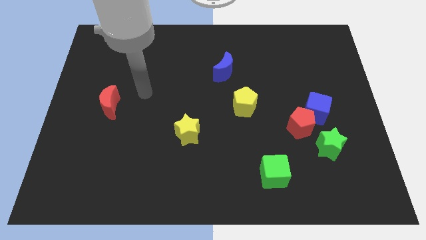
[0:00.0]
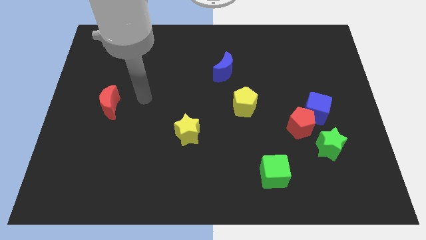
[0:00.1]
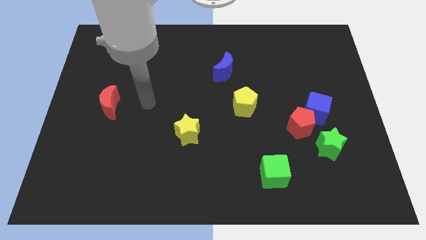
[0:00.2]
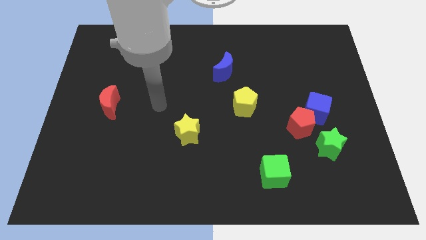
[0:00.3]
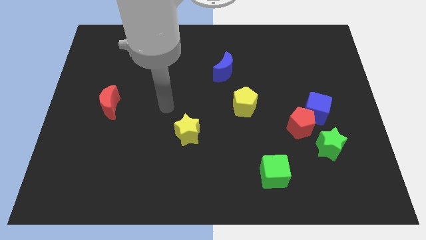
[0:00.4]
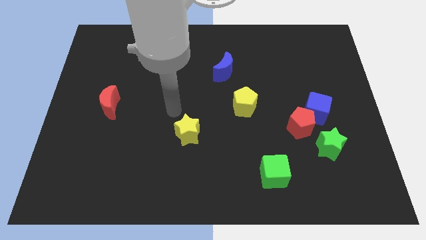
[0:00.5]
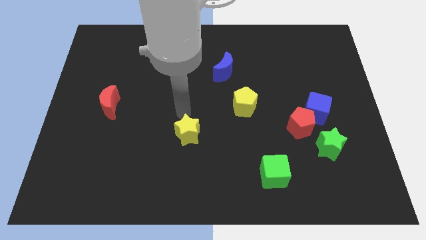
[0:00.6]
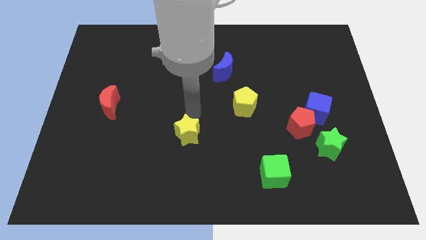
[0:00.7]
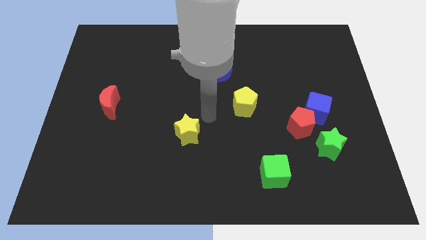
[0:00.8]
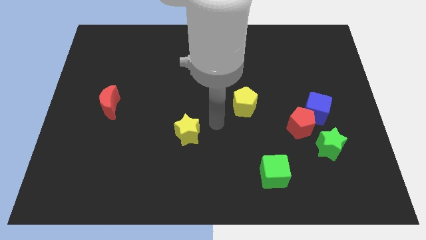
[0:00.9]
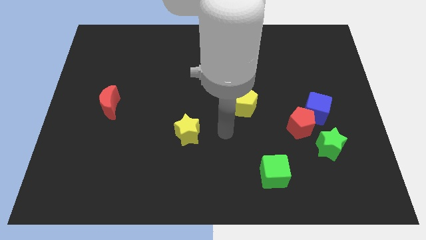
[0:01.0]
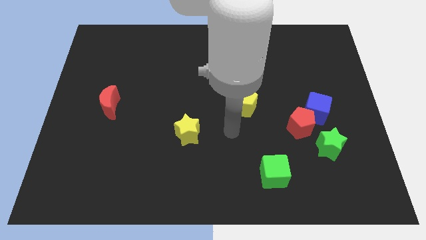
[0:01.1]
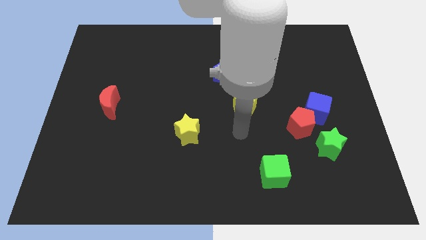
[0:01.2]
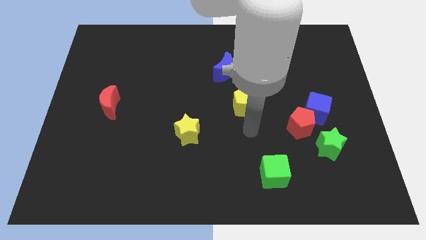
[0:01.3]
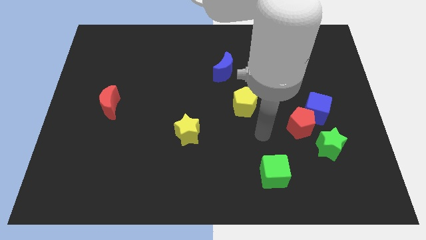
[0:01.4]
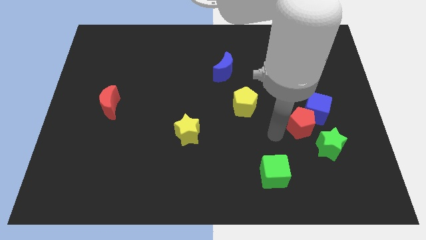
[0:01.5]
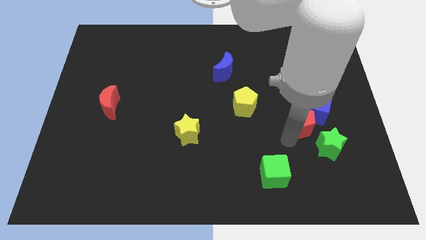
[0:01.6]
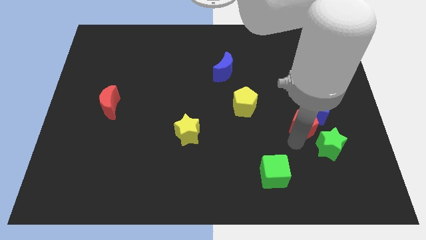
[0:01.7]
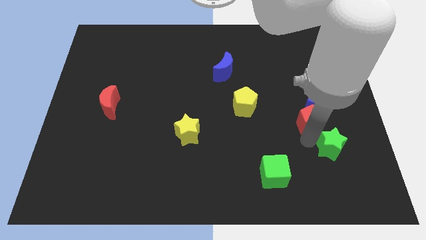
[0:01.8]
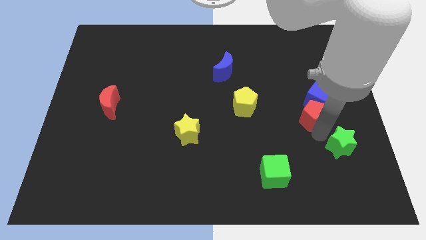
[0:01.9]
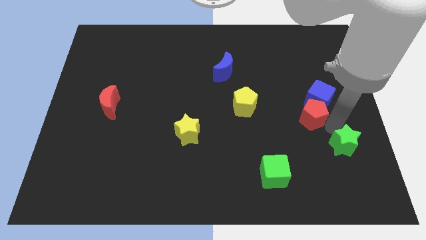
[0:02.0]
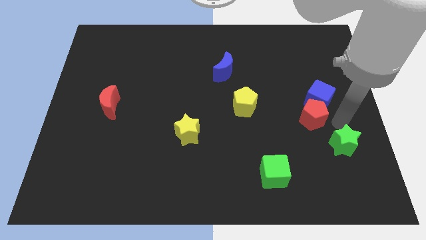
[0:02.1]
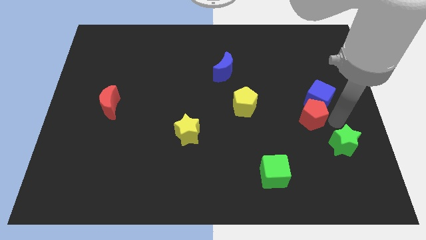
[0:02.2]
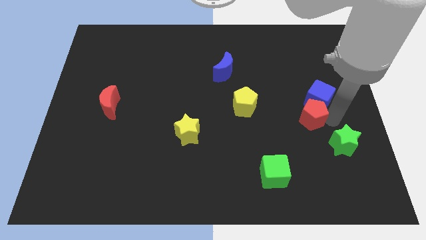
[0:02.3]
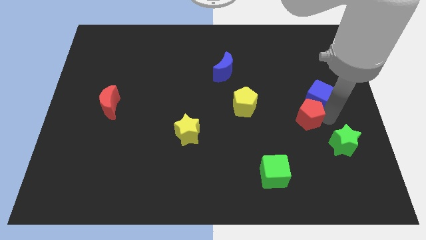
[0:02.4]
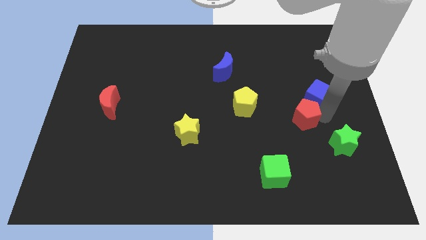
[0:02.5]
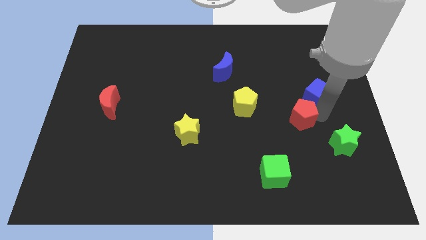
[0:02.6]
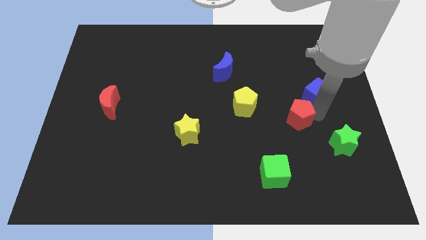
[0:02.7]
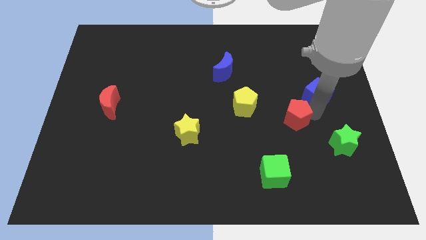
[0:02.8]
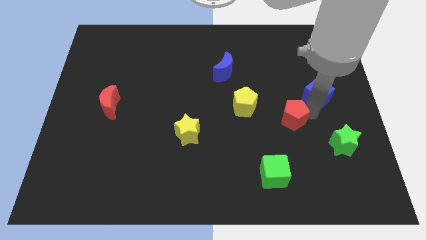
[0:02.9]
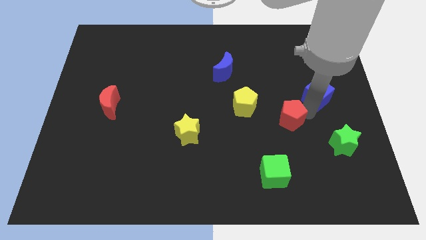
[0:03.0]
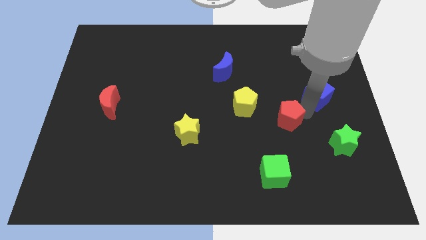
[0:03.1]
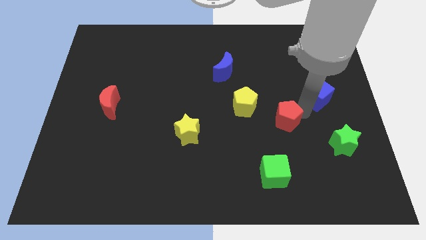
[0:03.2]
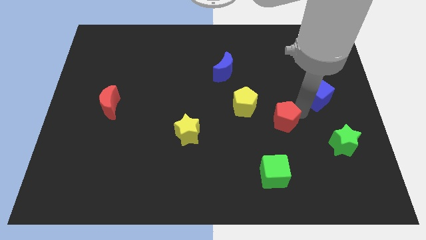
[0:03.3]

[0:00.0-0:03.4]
pull the red pentagon apart from the blue cube and green star

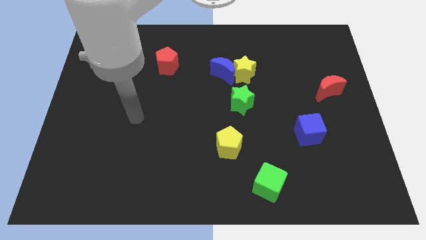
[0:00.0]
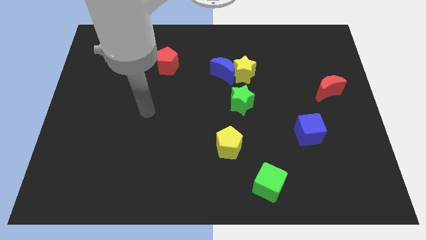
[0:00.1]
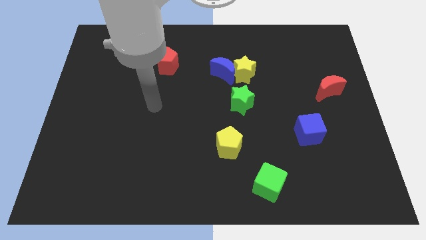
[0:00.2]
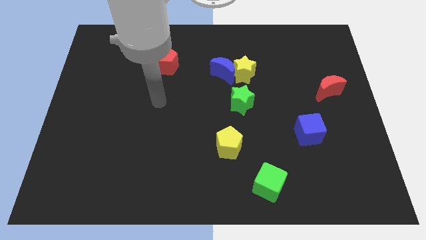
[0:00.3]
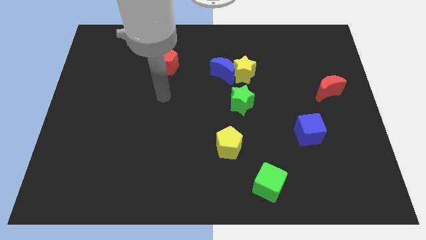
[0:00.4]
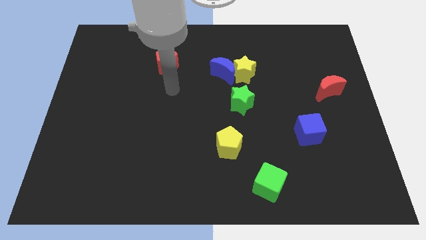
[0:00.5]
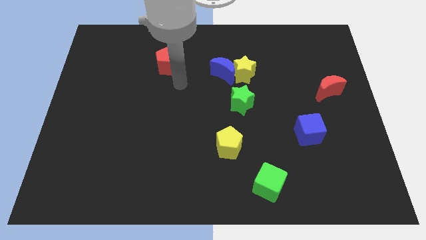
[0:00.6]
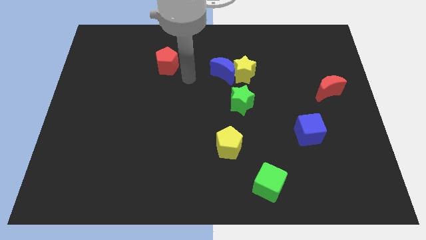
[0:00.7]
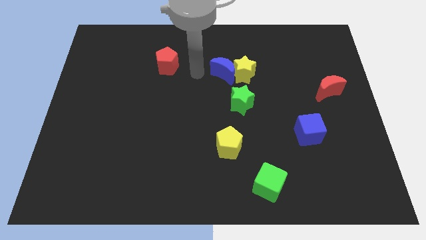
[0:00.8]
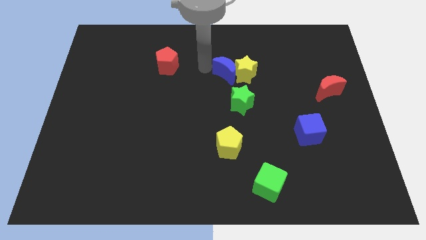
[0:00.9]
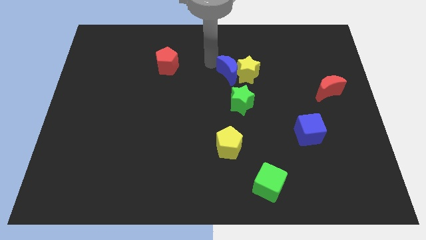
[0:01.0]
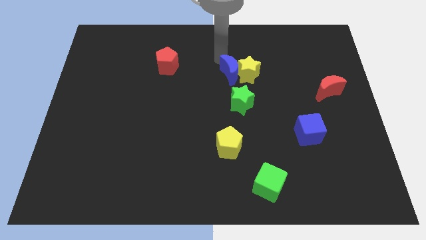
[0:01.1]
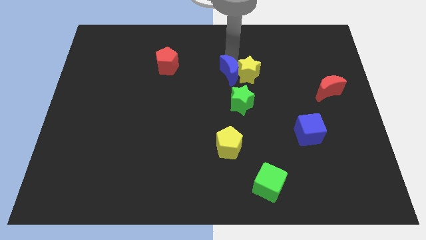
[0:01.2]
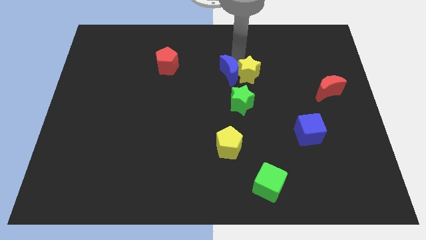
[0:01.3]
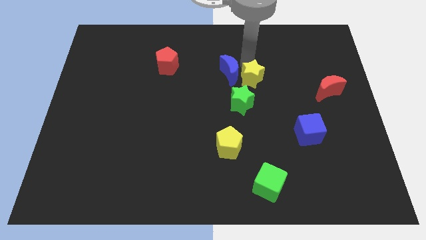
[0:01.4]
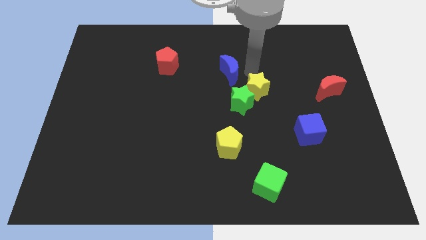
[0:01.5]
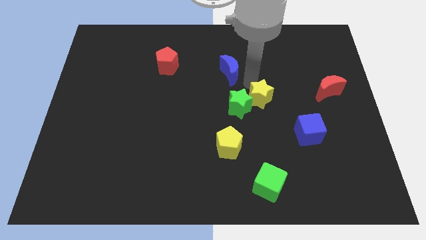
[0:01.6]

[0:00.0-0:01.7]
separate the blue moon from the yellow star

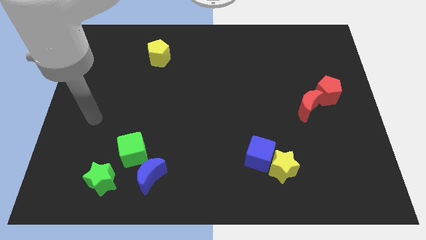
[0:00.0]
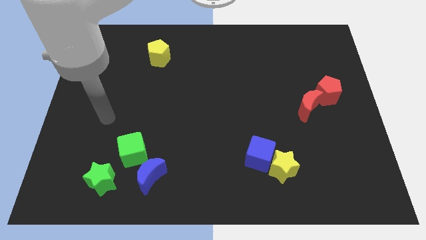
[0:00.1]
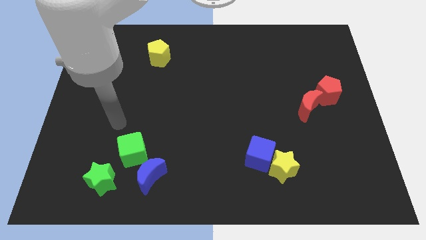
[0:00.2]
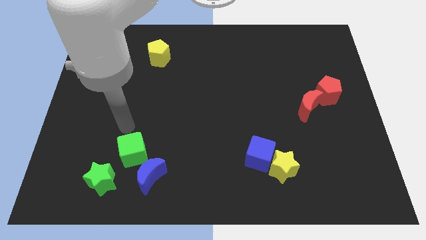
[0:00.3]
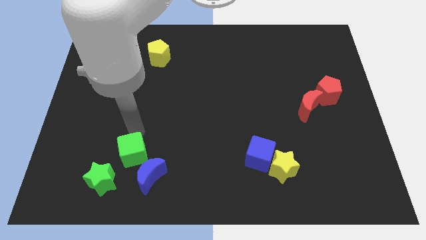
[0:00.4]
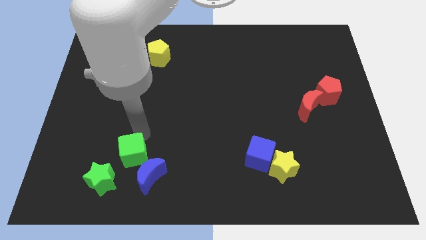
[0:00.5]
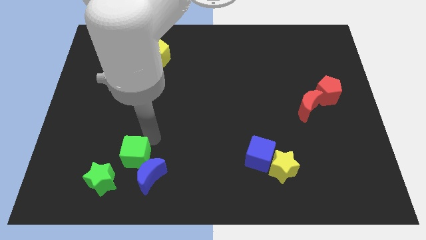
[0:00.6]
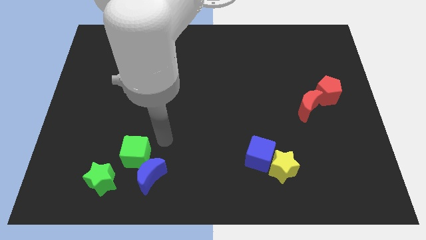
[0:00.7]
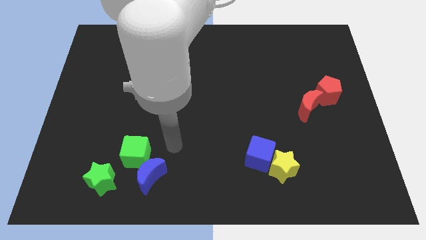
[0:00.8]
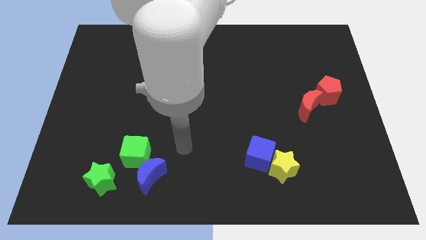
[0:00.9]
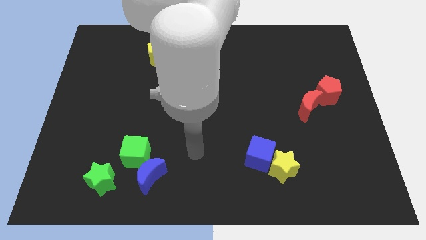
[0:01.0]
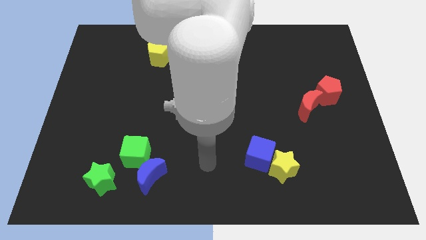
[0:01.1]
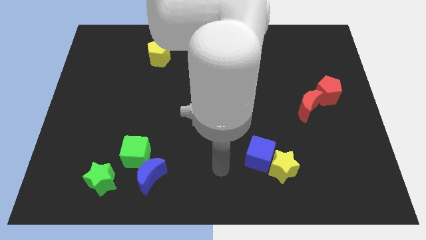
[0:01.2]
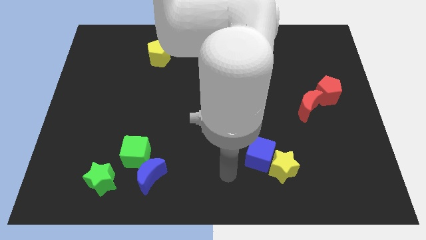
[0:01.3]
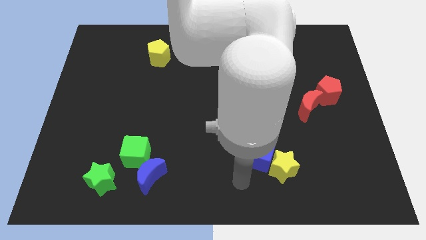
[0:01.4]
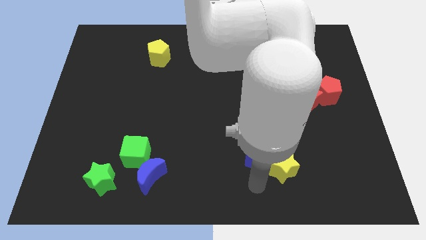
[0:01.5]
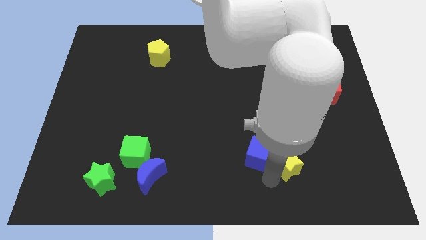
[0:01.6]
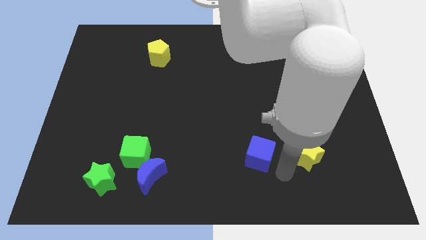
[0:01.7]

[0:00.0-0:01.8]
pull the blue cube apart from the yellow star

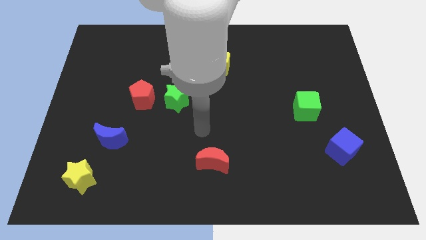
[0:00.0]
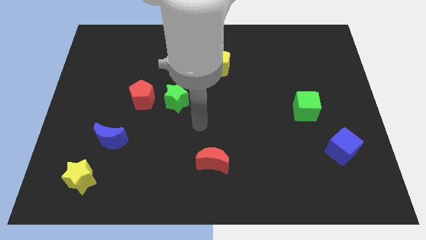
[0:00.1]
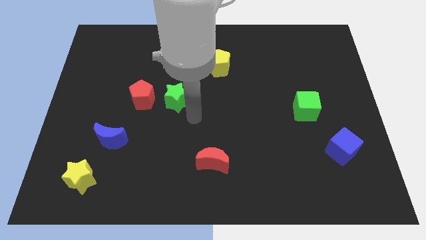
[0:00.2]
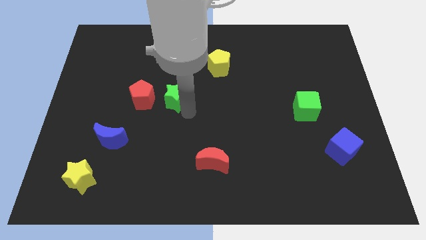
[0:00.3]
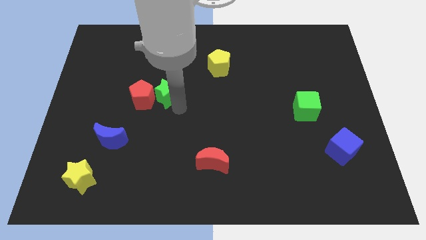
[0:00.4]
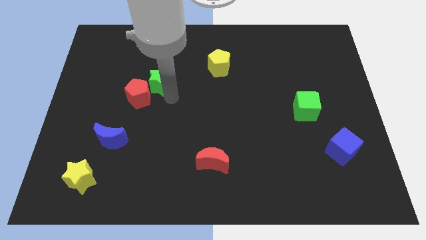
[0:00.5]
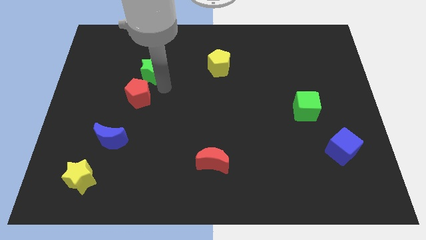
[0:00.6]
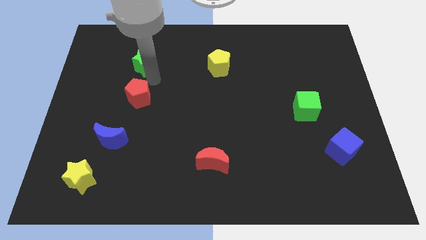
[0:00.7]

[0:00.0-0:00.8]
pull the red pentagon apart from the green star

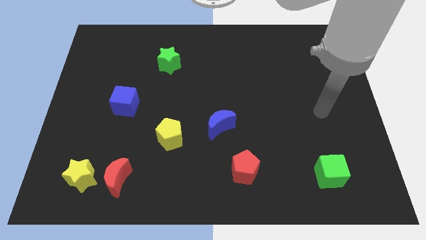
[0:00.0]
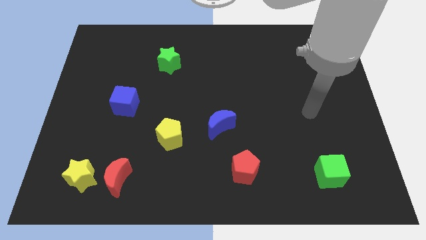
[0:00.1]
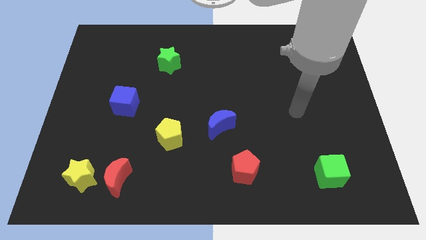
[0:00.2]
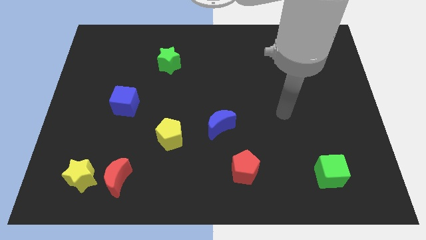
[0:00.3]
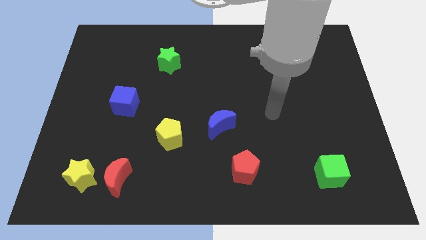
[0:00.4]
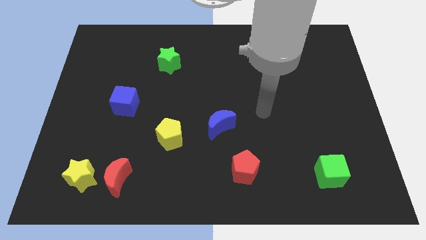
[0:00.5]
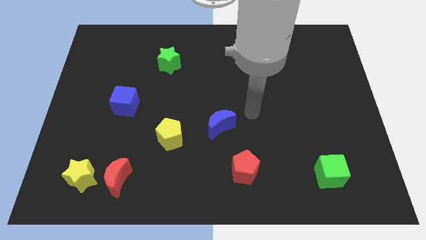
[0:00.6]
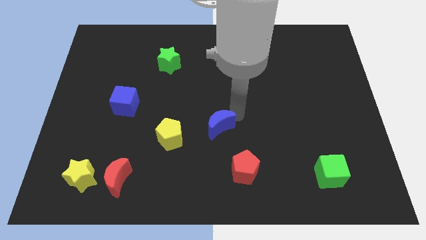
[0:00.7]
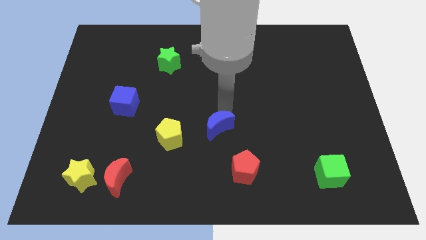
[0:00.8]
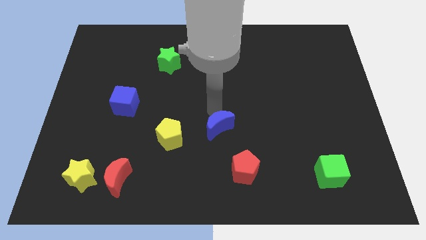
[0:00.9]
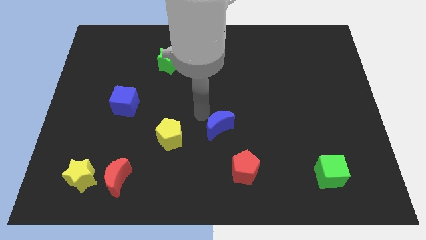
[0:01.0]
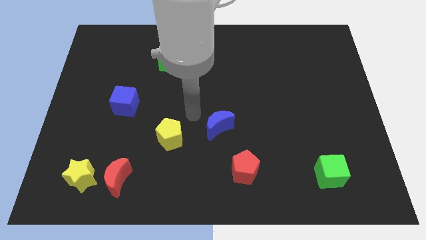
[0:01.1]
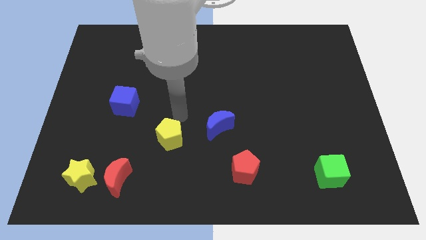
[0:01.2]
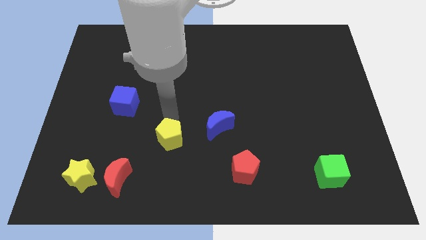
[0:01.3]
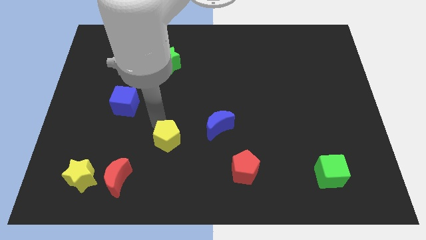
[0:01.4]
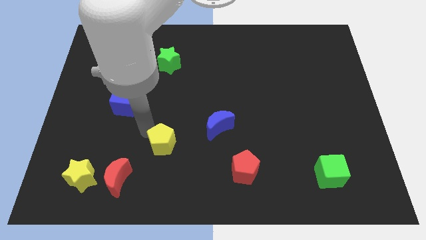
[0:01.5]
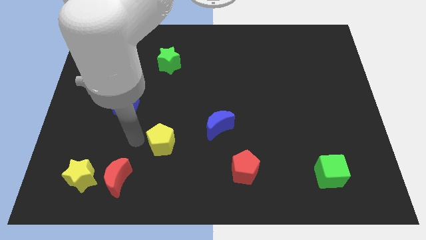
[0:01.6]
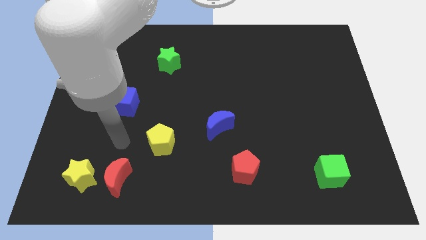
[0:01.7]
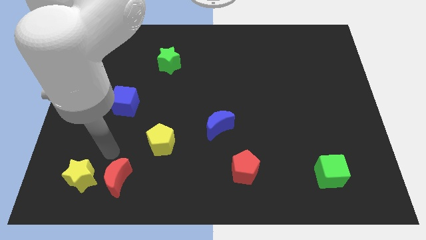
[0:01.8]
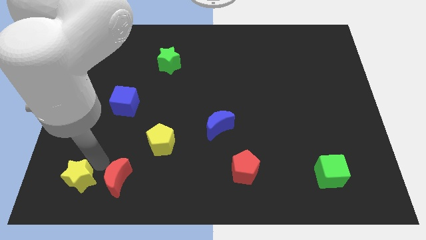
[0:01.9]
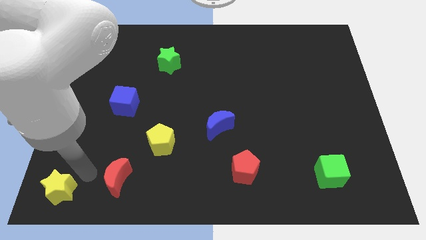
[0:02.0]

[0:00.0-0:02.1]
pull the red moon apart from the yellow star
